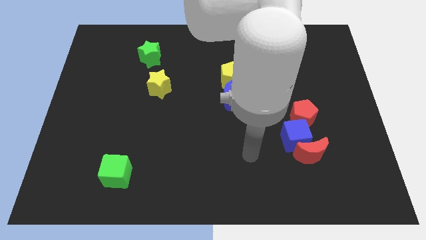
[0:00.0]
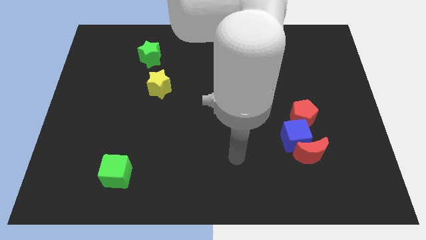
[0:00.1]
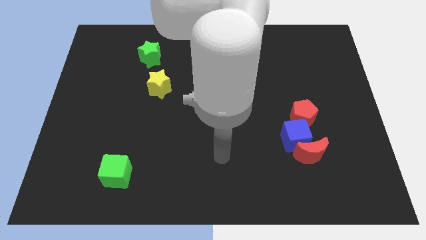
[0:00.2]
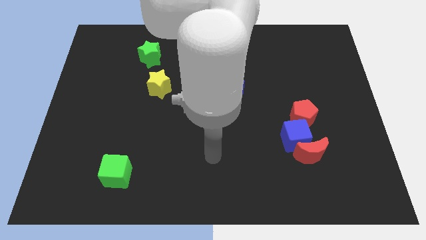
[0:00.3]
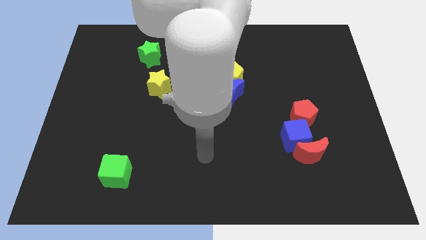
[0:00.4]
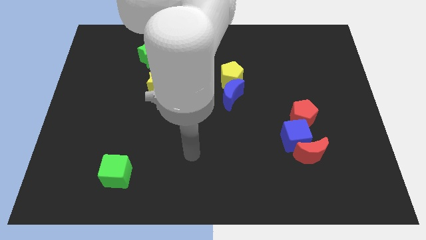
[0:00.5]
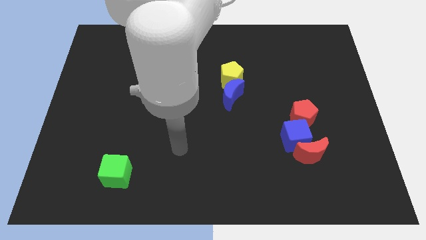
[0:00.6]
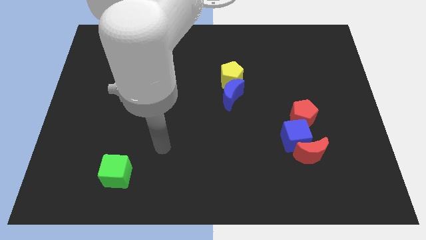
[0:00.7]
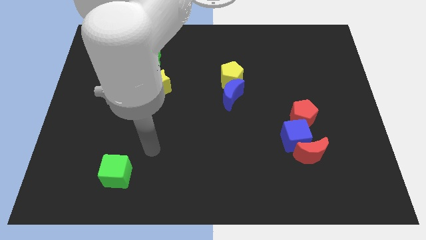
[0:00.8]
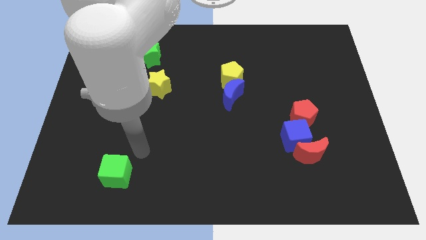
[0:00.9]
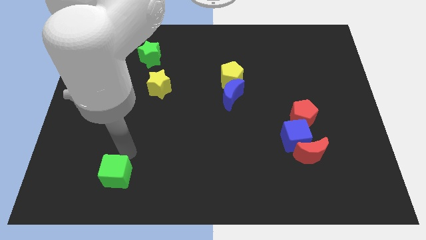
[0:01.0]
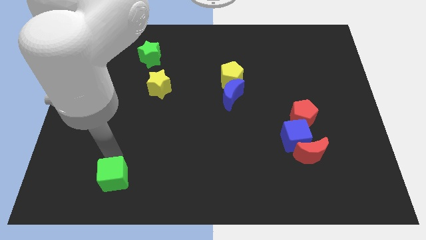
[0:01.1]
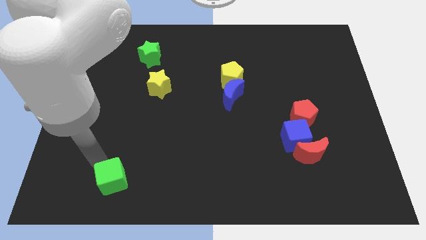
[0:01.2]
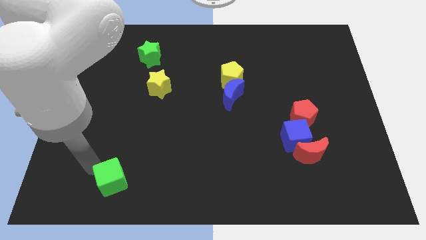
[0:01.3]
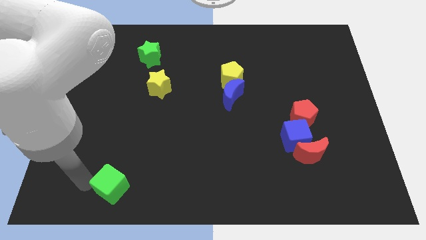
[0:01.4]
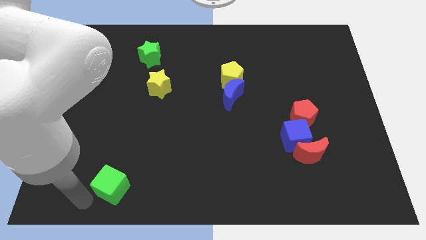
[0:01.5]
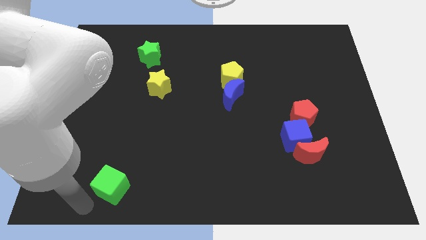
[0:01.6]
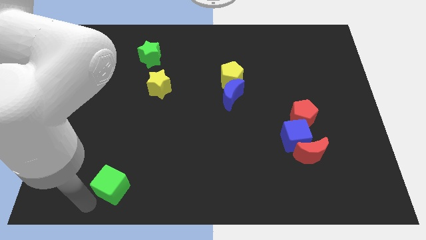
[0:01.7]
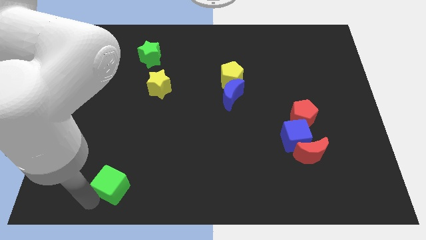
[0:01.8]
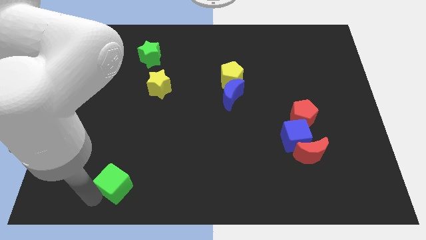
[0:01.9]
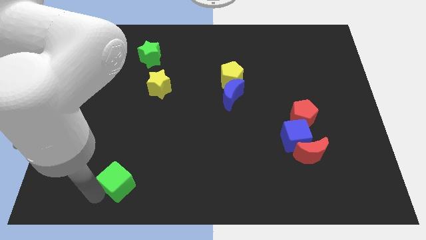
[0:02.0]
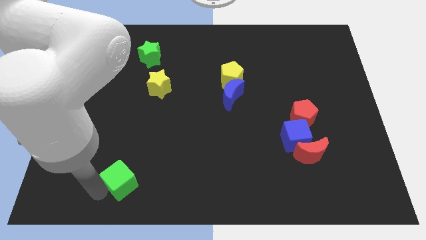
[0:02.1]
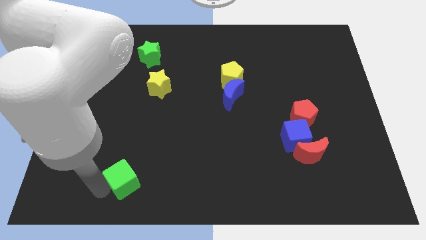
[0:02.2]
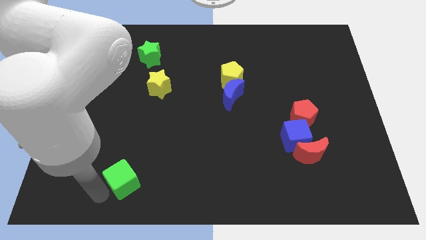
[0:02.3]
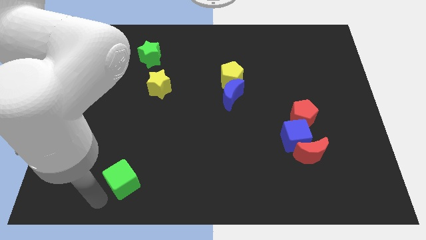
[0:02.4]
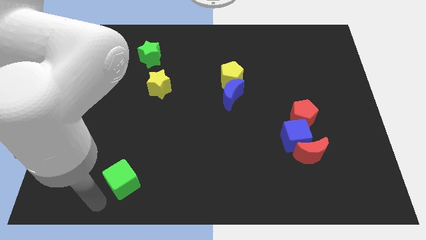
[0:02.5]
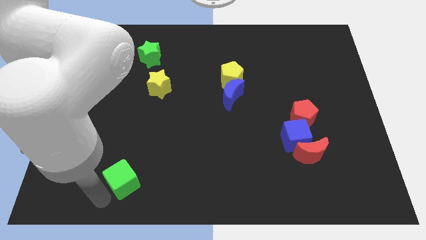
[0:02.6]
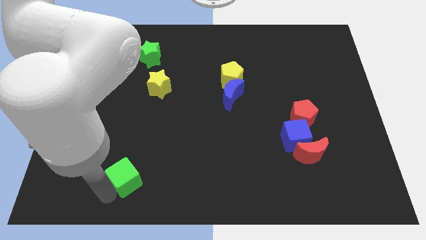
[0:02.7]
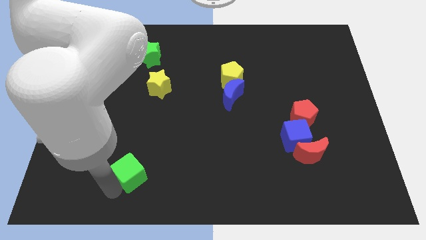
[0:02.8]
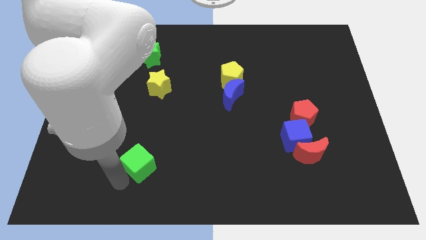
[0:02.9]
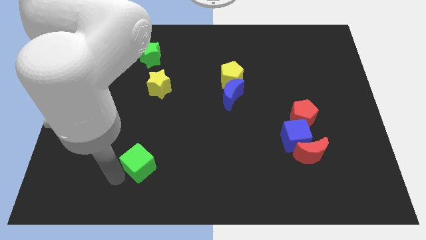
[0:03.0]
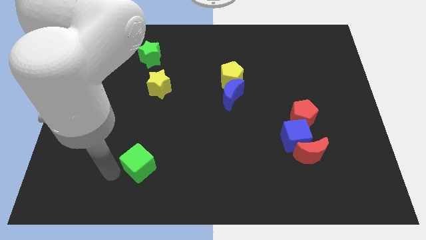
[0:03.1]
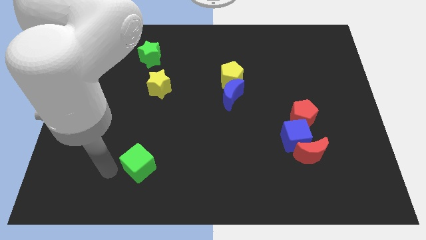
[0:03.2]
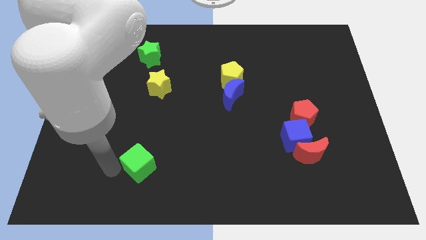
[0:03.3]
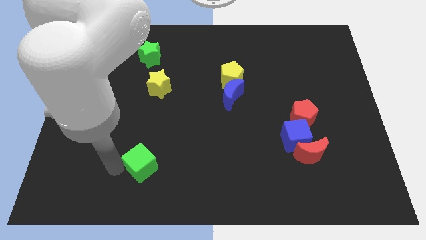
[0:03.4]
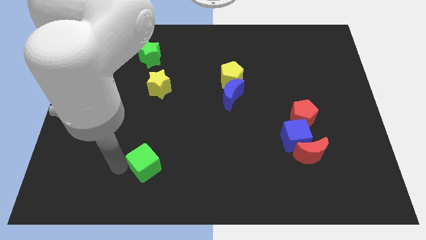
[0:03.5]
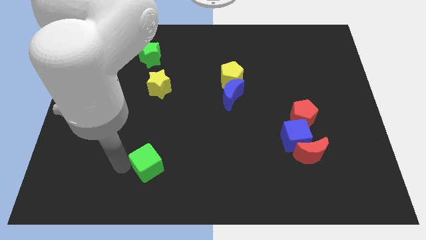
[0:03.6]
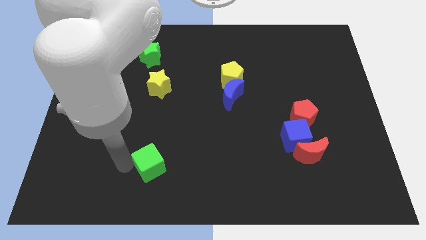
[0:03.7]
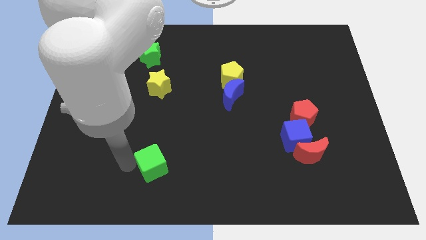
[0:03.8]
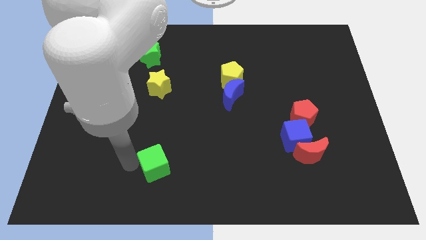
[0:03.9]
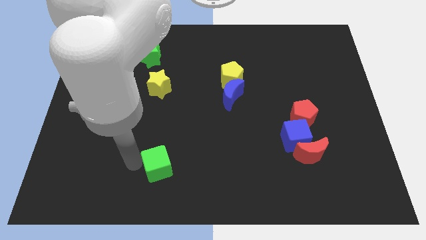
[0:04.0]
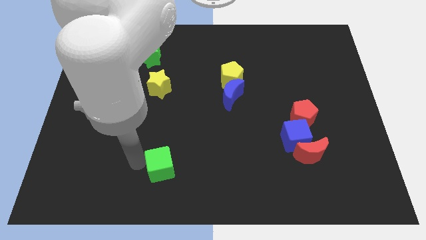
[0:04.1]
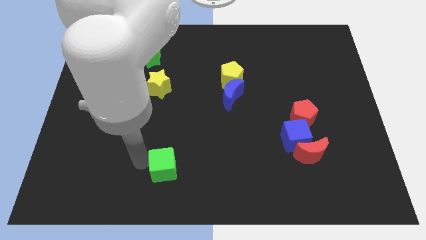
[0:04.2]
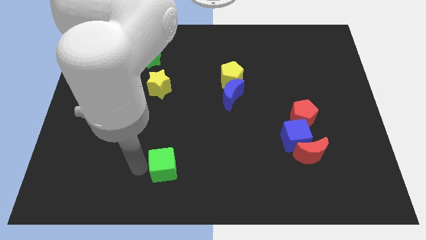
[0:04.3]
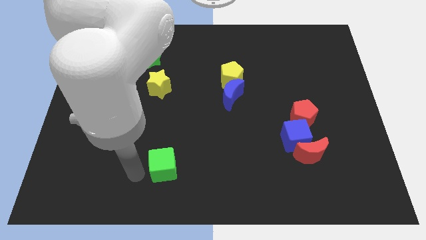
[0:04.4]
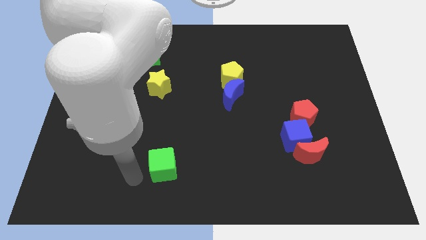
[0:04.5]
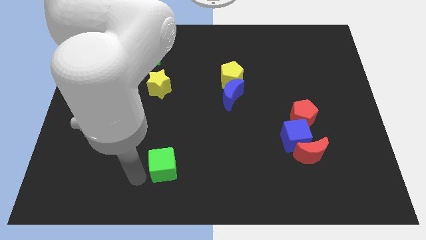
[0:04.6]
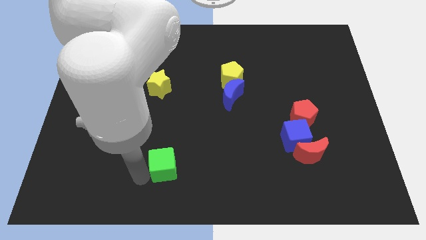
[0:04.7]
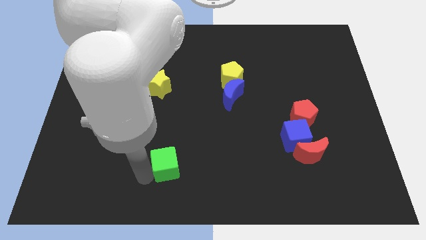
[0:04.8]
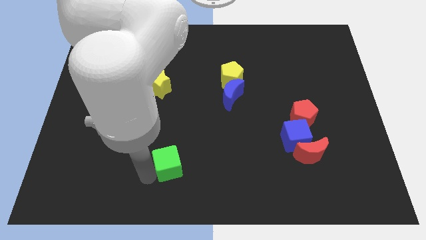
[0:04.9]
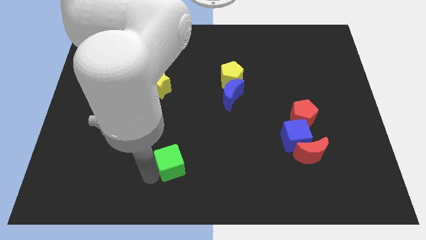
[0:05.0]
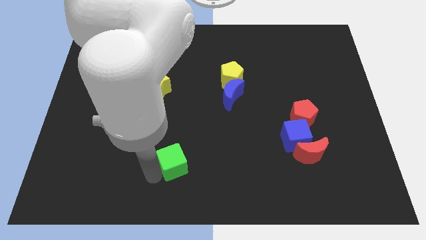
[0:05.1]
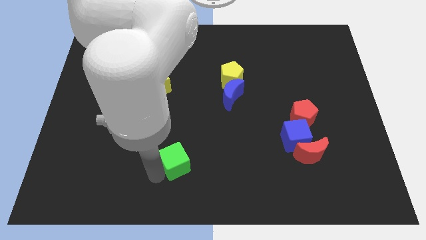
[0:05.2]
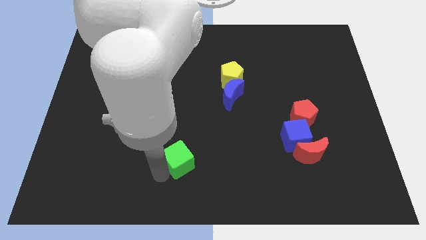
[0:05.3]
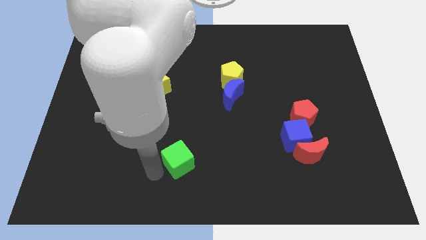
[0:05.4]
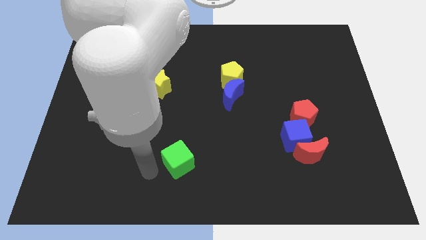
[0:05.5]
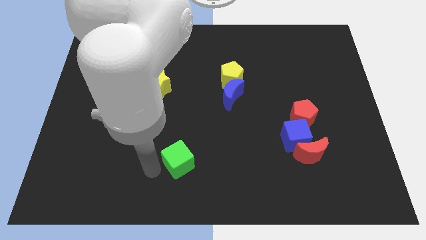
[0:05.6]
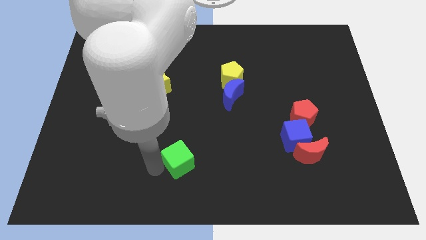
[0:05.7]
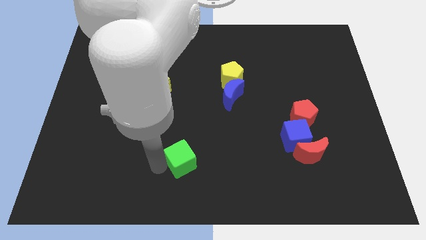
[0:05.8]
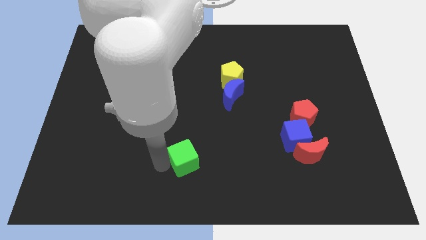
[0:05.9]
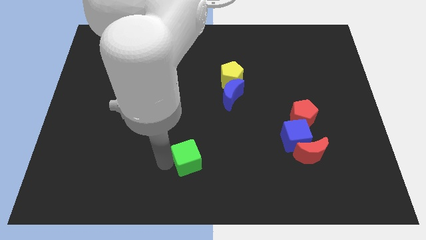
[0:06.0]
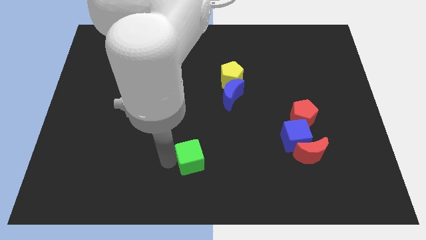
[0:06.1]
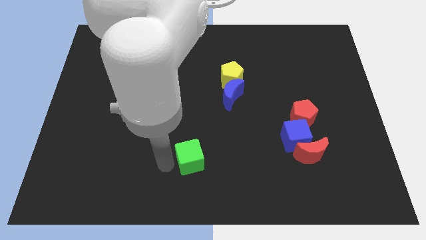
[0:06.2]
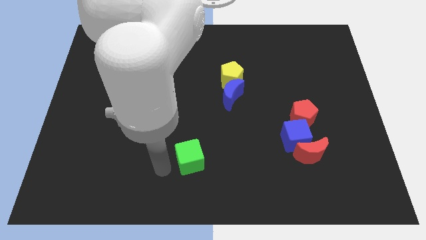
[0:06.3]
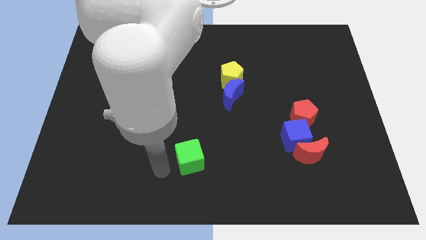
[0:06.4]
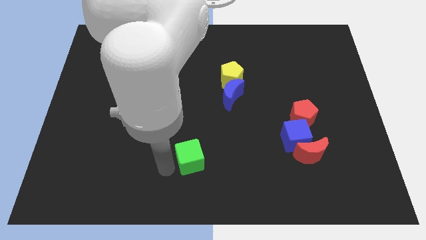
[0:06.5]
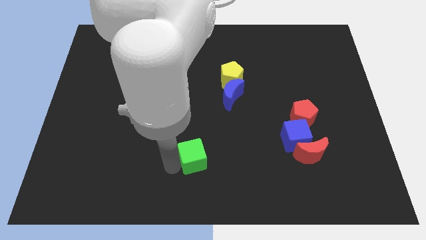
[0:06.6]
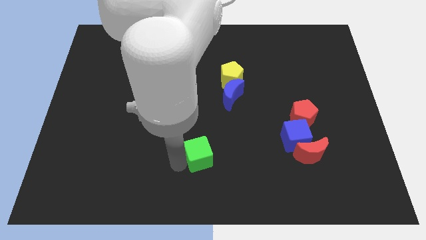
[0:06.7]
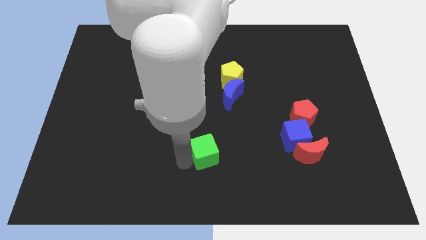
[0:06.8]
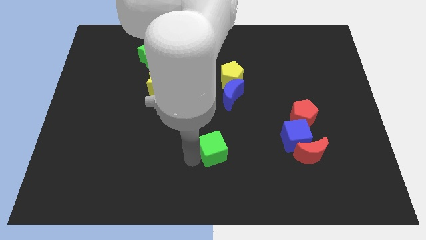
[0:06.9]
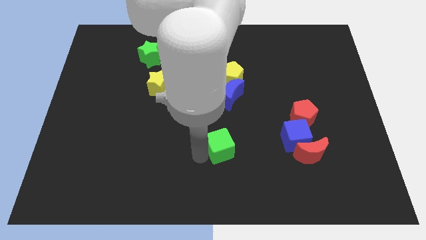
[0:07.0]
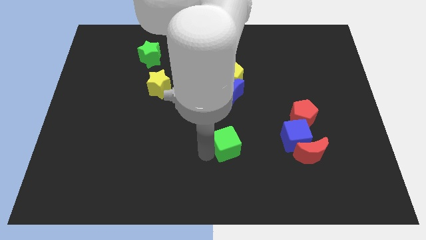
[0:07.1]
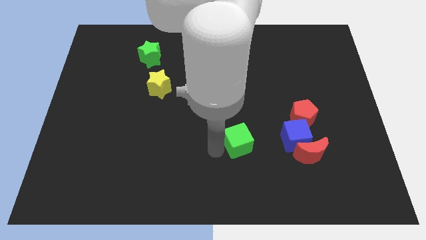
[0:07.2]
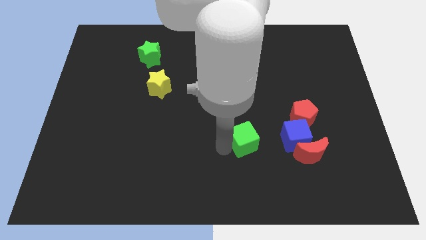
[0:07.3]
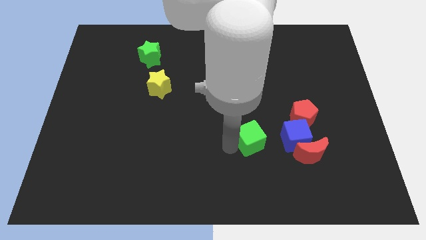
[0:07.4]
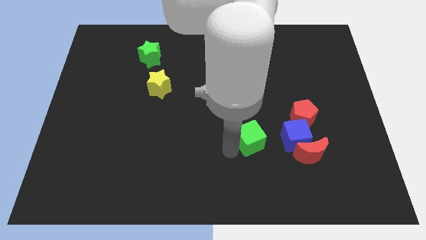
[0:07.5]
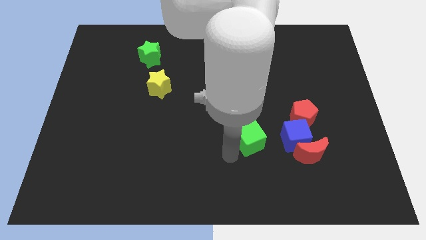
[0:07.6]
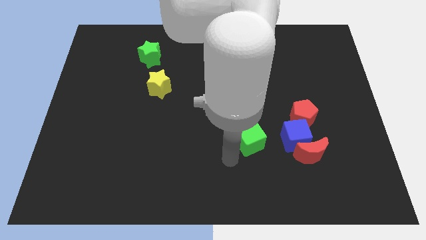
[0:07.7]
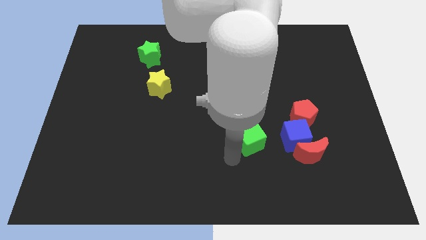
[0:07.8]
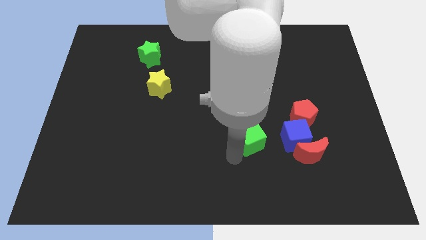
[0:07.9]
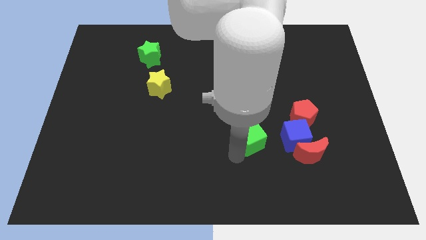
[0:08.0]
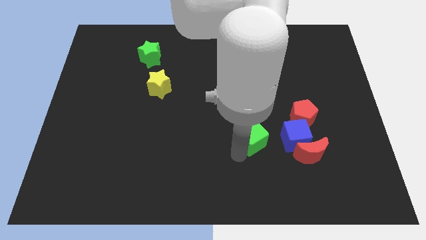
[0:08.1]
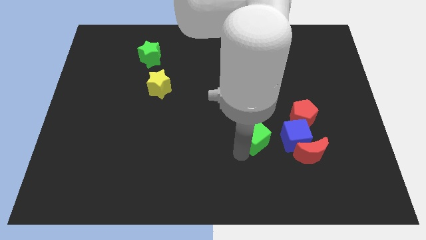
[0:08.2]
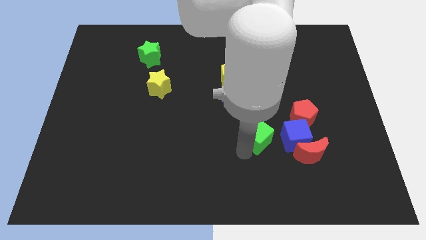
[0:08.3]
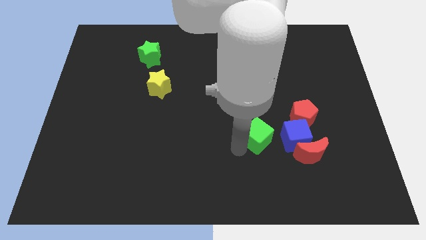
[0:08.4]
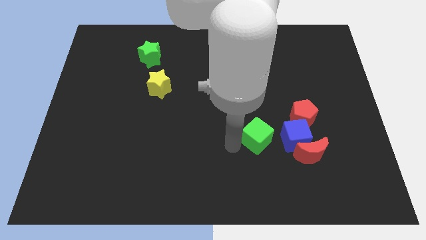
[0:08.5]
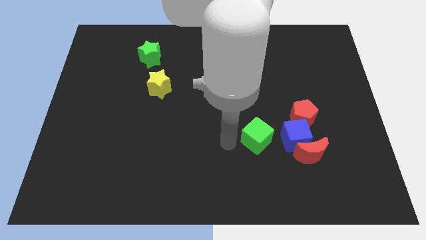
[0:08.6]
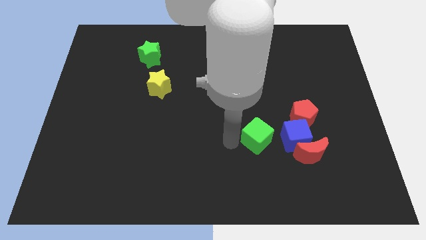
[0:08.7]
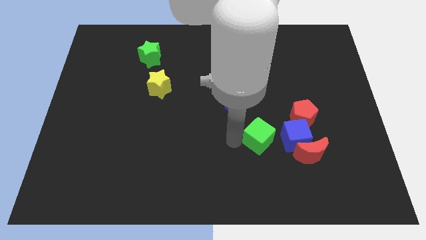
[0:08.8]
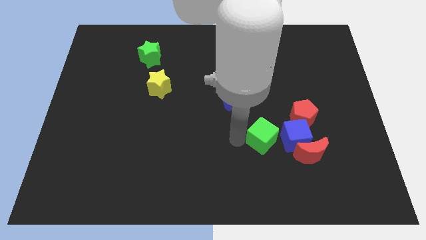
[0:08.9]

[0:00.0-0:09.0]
slide the green cube to the top left of the red moon
